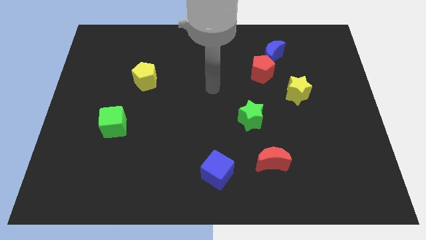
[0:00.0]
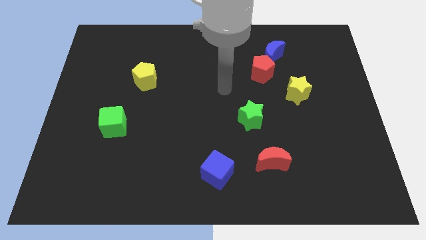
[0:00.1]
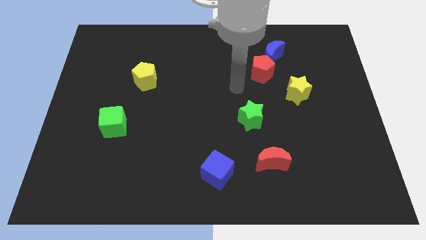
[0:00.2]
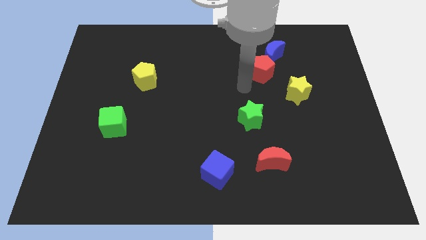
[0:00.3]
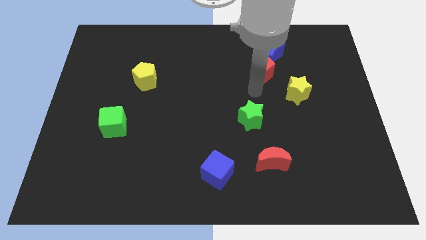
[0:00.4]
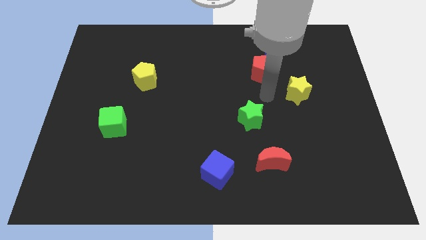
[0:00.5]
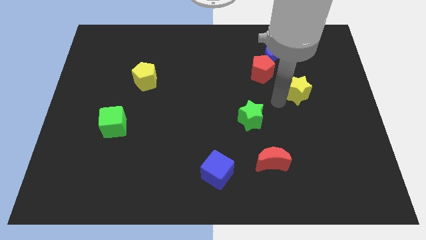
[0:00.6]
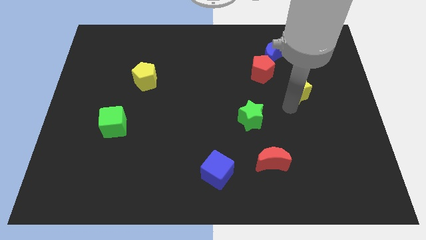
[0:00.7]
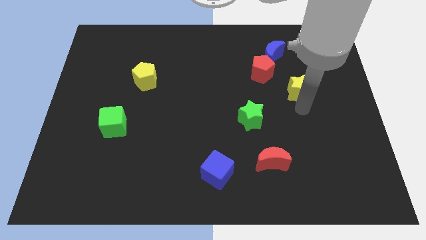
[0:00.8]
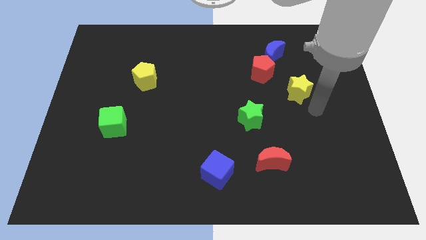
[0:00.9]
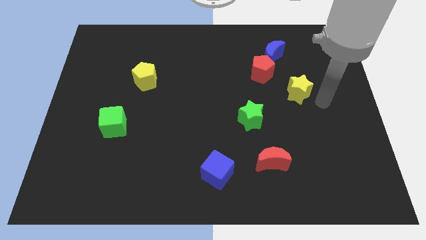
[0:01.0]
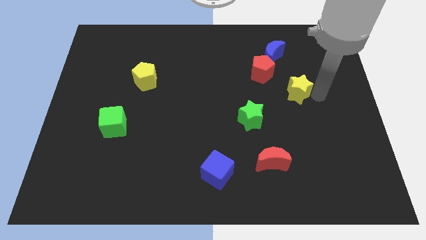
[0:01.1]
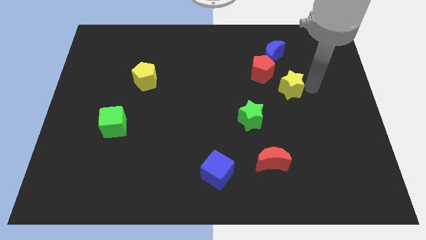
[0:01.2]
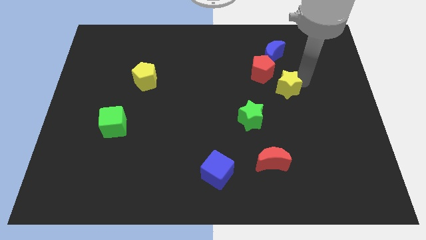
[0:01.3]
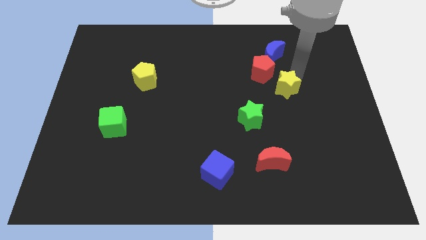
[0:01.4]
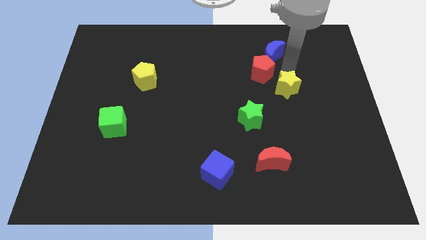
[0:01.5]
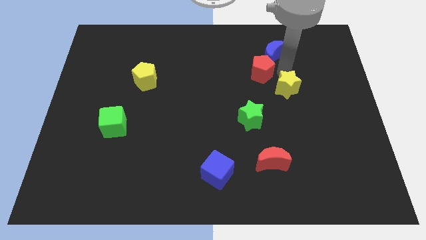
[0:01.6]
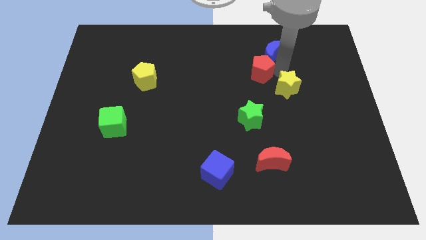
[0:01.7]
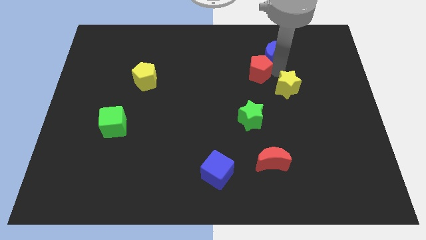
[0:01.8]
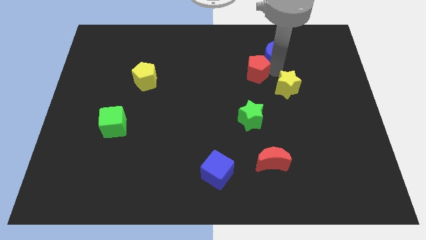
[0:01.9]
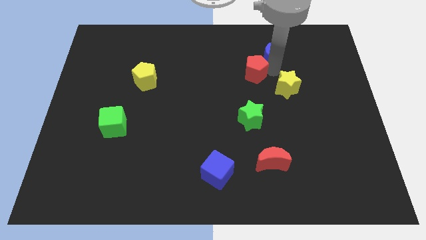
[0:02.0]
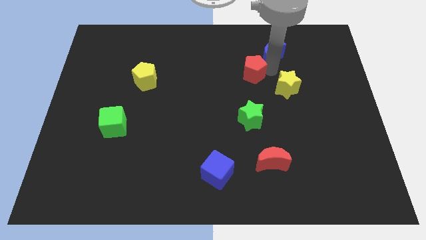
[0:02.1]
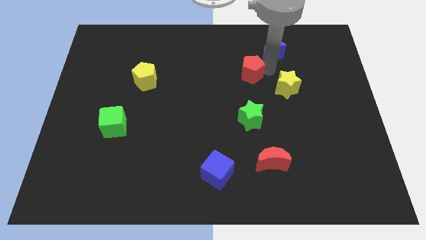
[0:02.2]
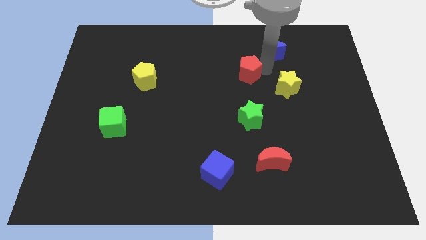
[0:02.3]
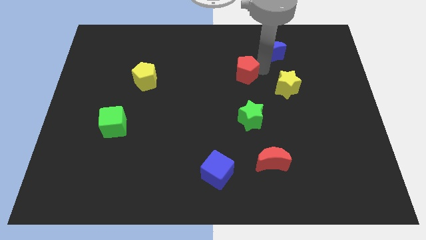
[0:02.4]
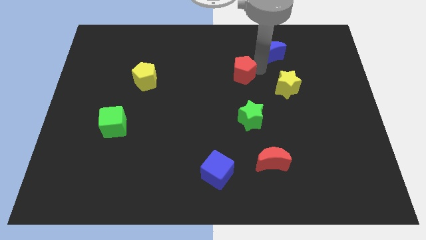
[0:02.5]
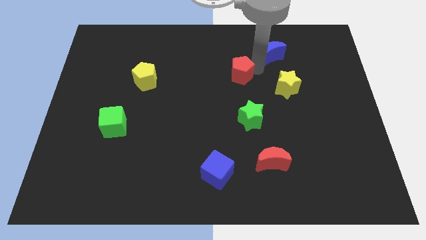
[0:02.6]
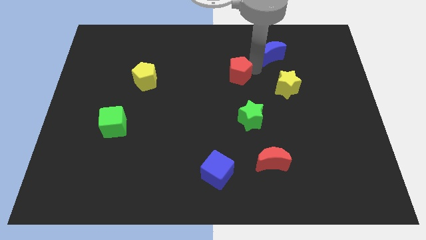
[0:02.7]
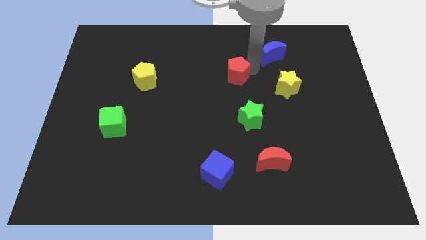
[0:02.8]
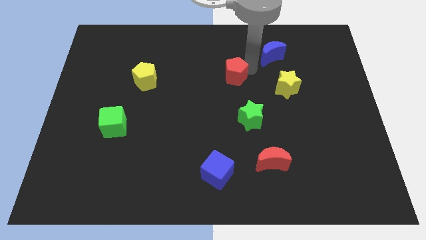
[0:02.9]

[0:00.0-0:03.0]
slide the red pentagon left a little

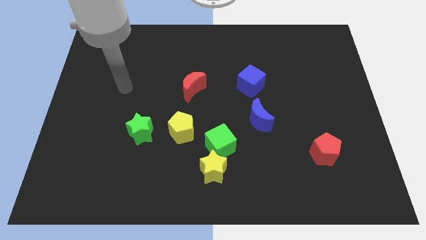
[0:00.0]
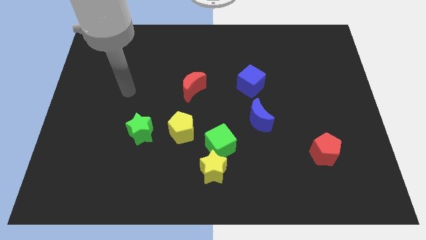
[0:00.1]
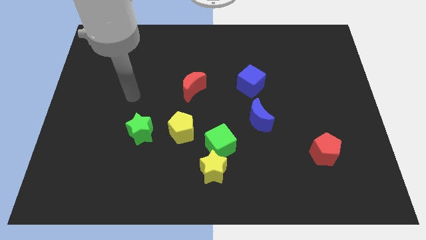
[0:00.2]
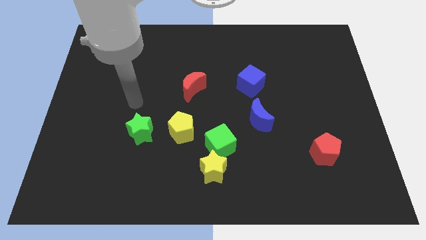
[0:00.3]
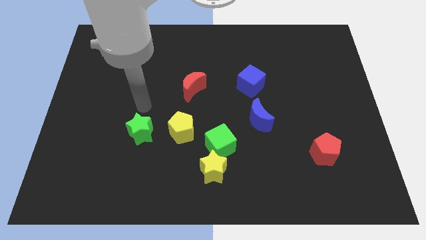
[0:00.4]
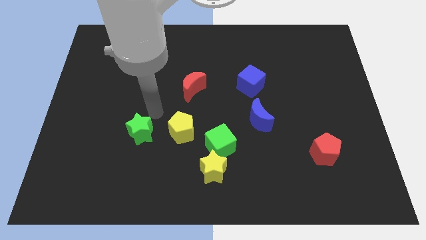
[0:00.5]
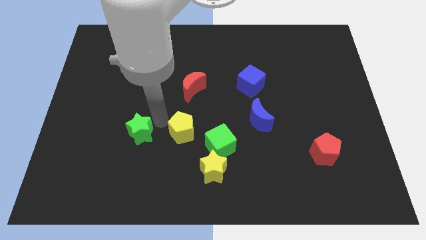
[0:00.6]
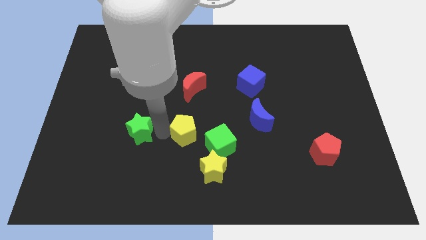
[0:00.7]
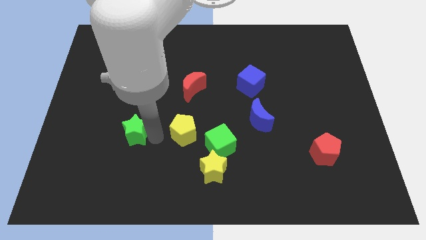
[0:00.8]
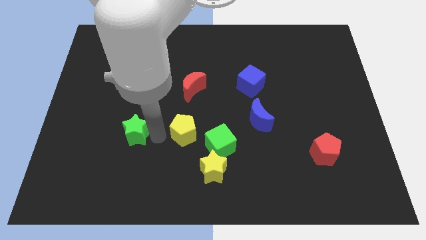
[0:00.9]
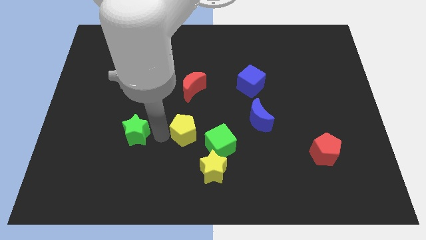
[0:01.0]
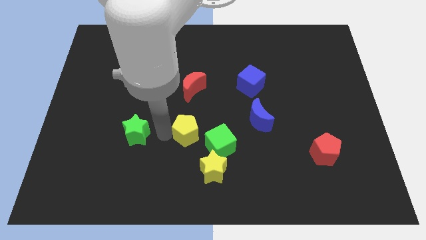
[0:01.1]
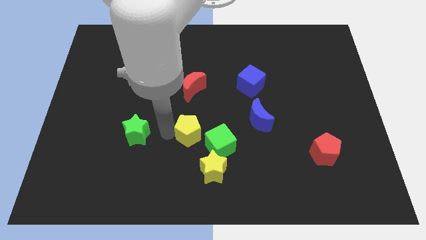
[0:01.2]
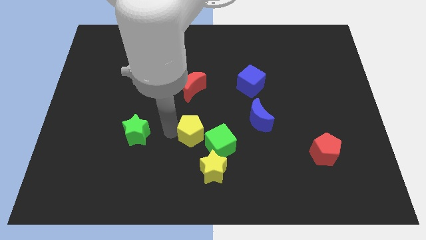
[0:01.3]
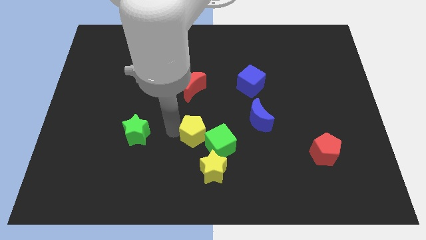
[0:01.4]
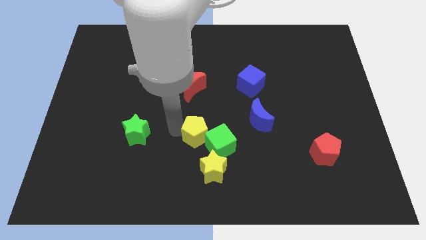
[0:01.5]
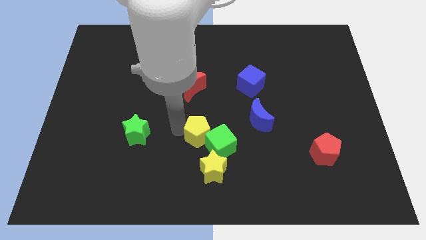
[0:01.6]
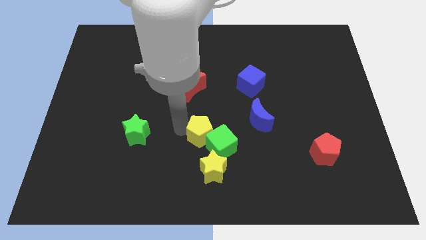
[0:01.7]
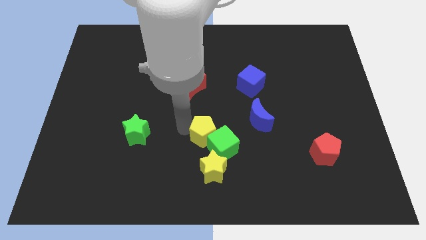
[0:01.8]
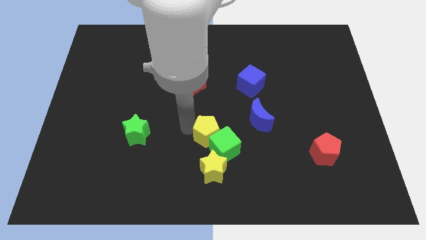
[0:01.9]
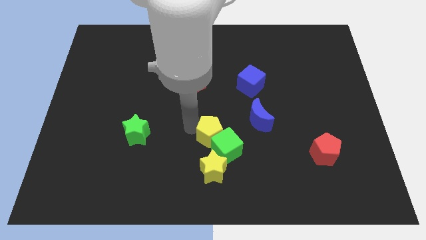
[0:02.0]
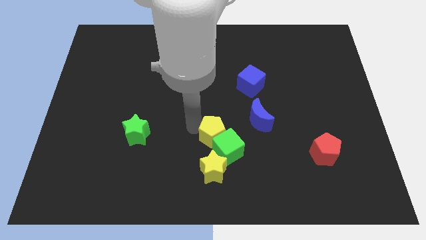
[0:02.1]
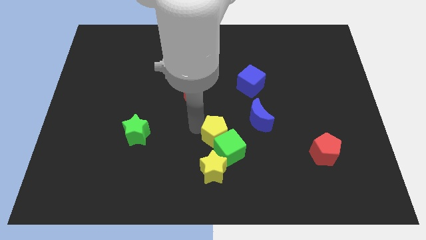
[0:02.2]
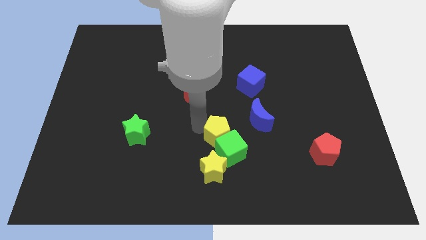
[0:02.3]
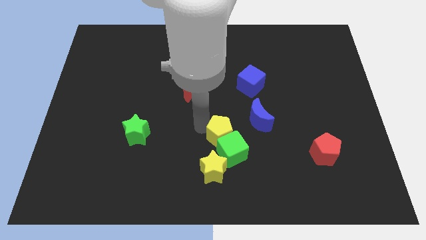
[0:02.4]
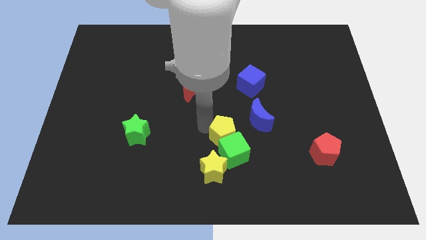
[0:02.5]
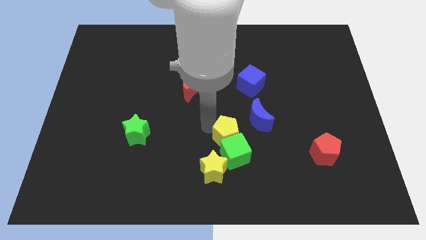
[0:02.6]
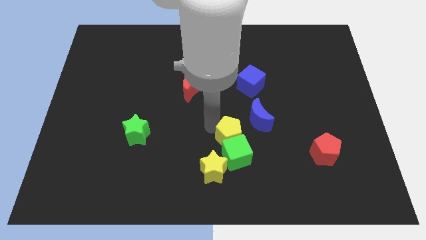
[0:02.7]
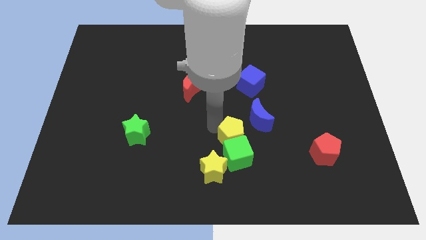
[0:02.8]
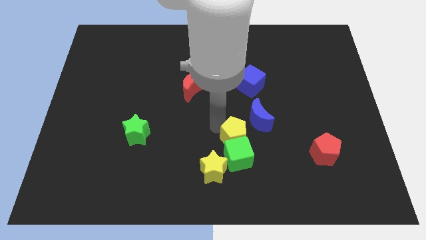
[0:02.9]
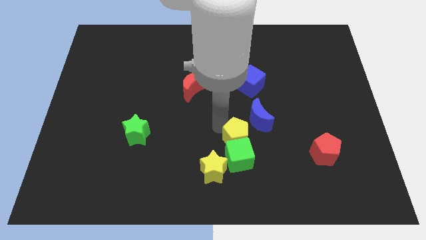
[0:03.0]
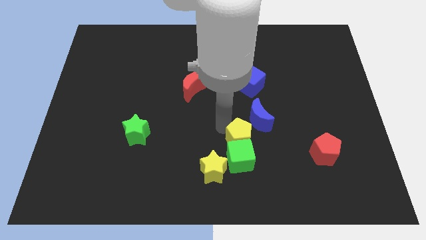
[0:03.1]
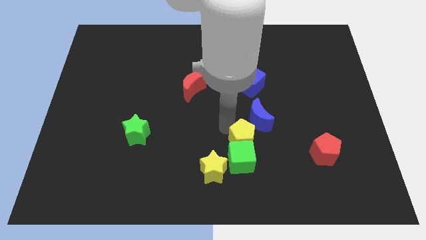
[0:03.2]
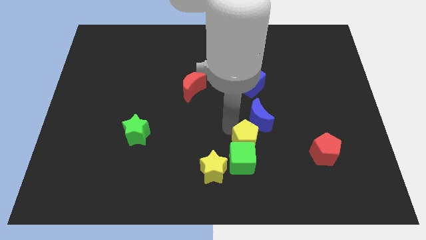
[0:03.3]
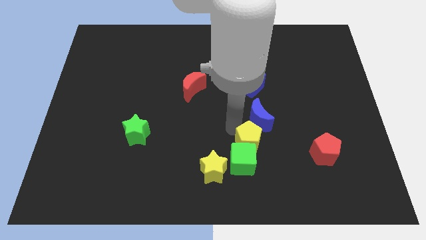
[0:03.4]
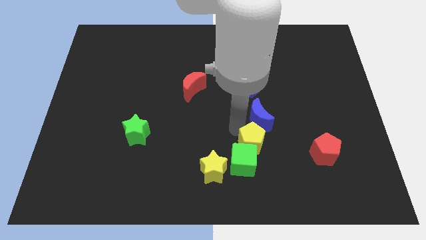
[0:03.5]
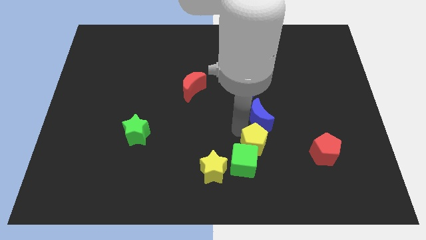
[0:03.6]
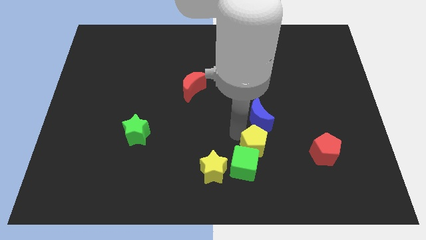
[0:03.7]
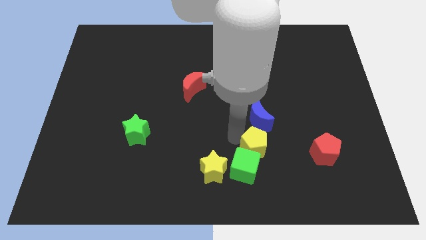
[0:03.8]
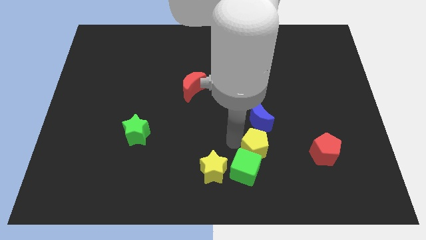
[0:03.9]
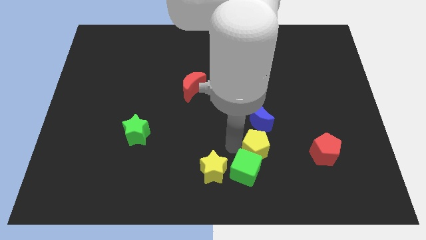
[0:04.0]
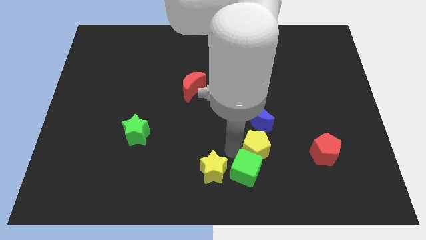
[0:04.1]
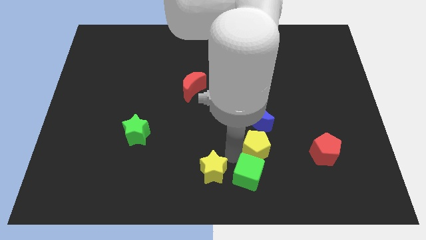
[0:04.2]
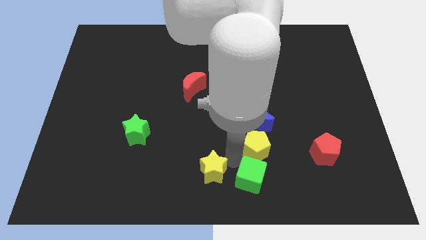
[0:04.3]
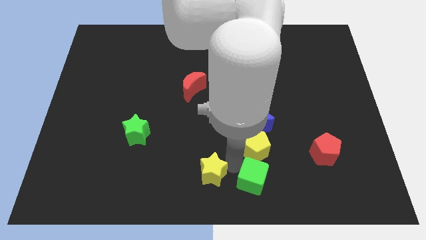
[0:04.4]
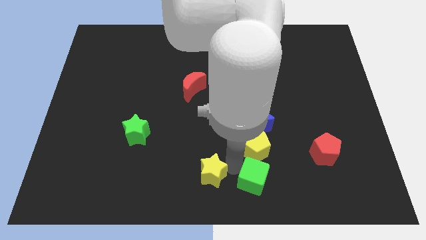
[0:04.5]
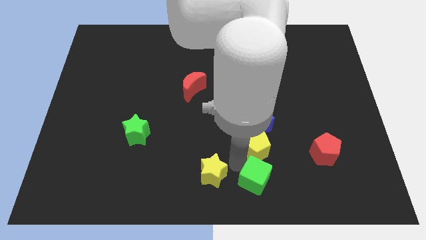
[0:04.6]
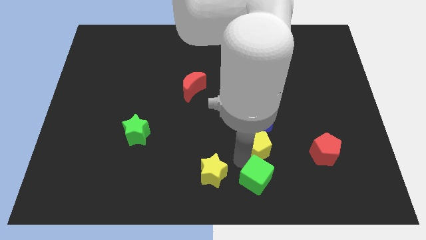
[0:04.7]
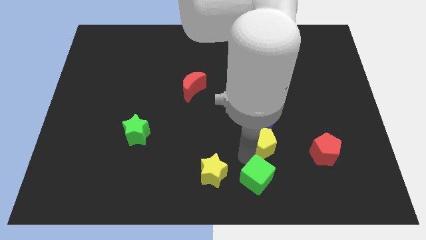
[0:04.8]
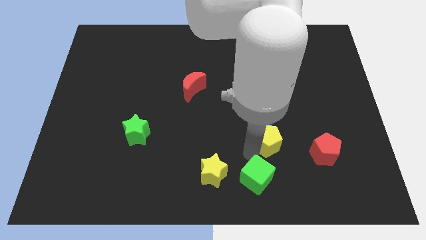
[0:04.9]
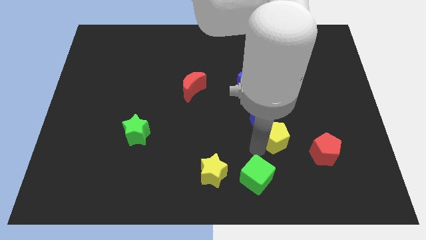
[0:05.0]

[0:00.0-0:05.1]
move the yellow pentagon right

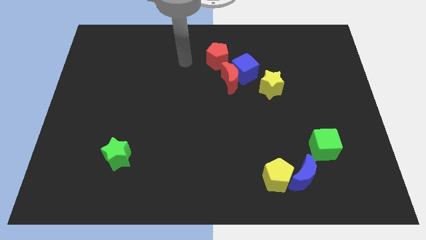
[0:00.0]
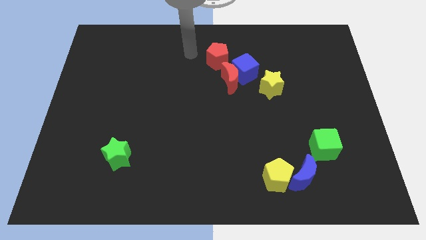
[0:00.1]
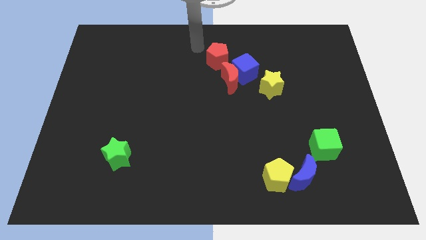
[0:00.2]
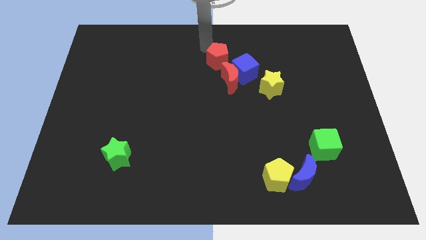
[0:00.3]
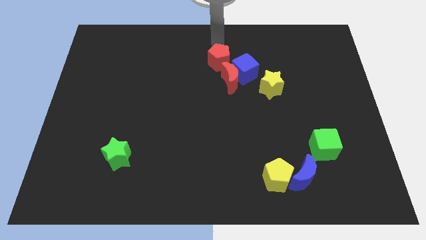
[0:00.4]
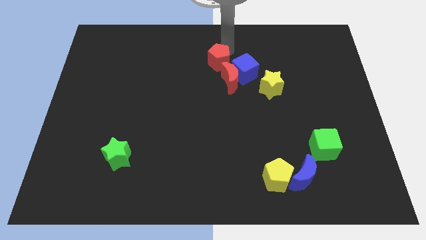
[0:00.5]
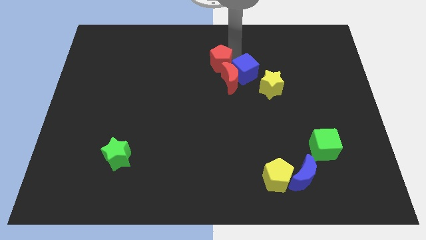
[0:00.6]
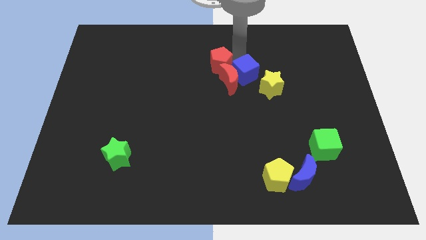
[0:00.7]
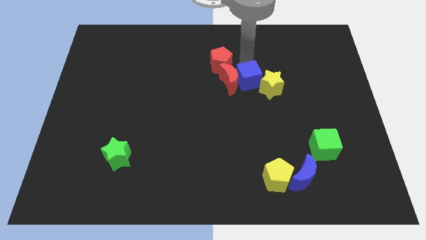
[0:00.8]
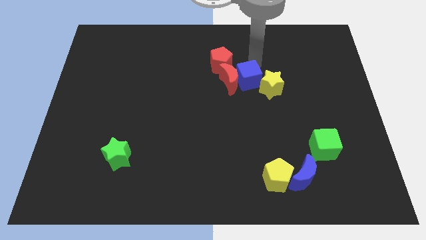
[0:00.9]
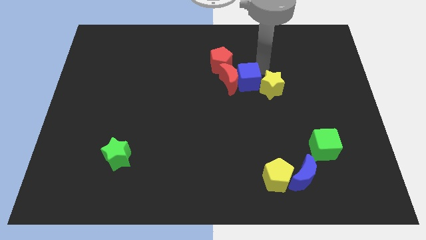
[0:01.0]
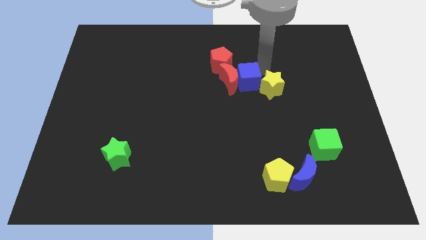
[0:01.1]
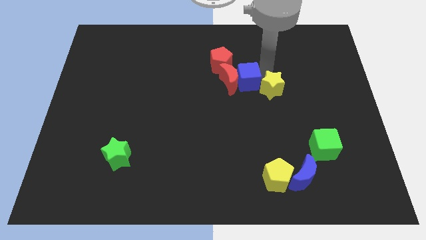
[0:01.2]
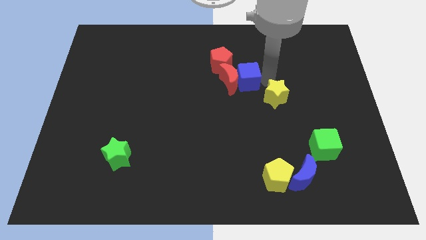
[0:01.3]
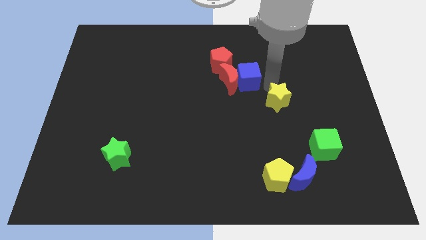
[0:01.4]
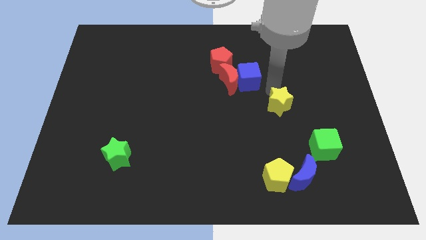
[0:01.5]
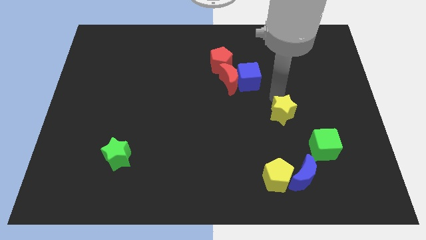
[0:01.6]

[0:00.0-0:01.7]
slide the yellow star a little down
